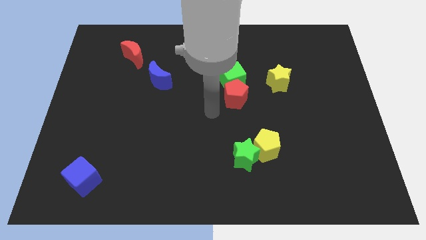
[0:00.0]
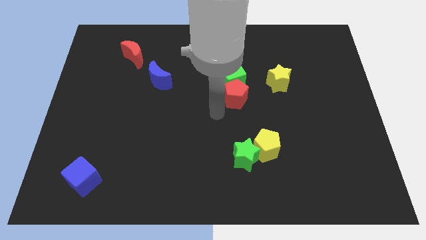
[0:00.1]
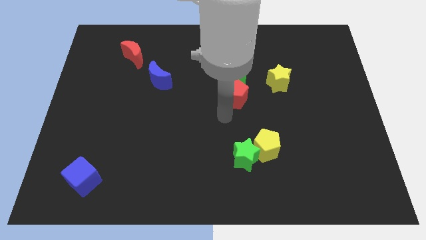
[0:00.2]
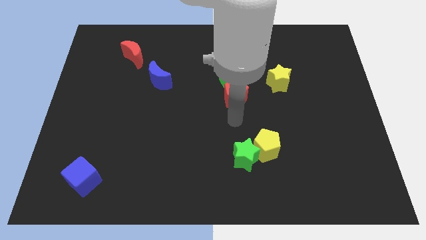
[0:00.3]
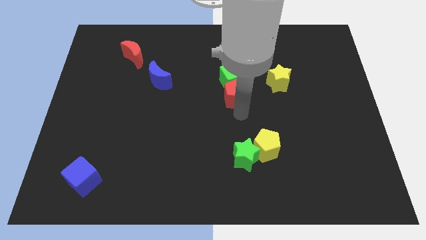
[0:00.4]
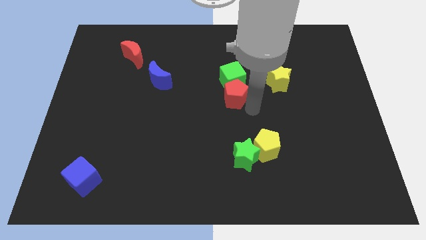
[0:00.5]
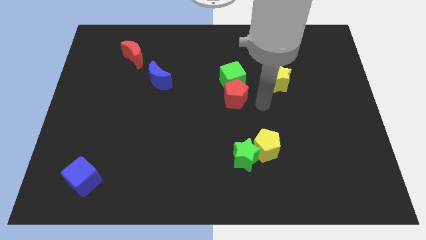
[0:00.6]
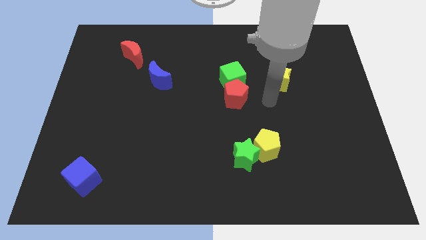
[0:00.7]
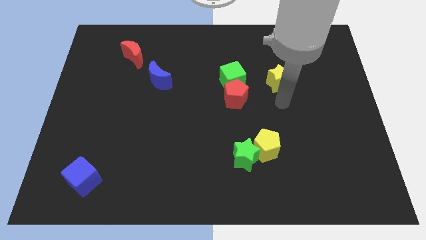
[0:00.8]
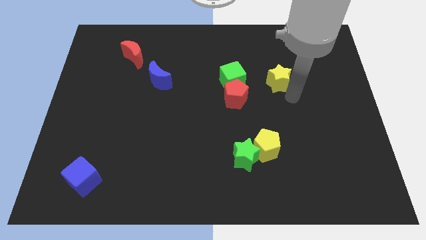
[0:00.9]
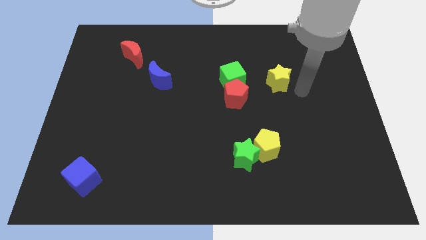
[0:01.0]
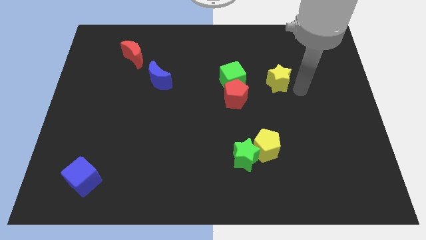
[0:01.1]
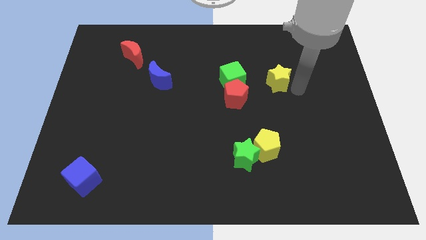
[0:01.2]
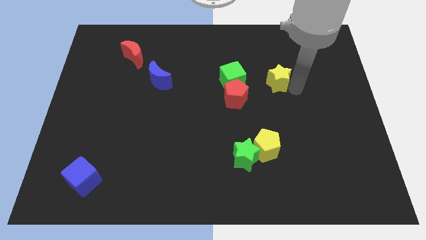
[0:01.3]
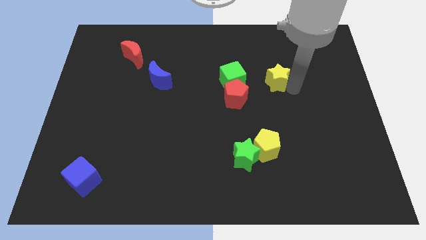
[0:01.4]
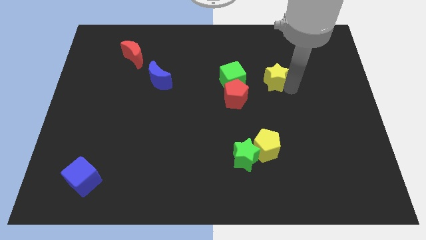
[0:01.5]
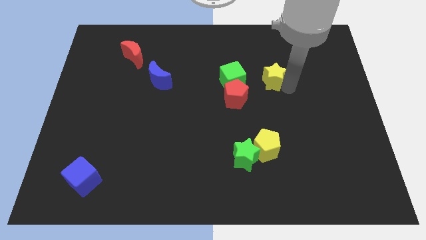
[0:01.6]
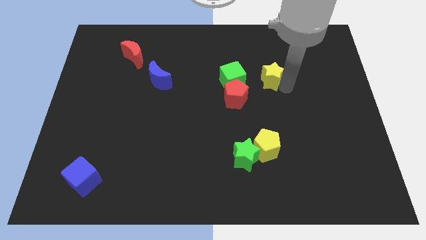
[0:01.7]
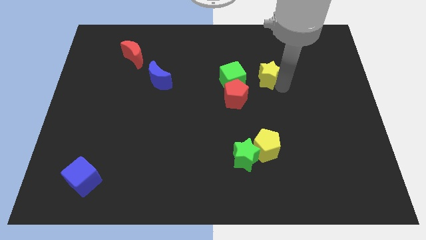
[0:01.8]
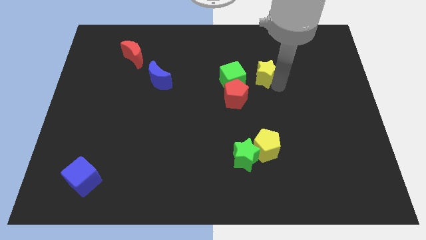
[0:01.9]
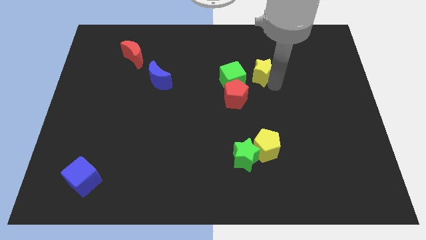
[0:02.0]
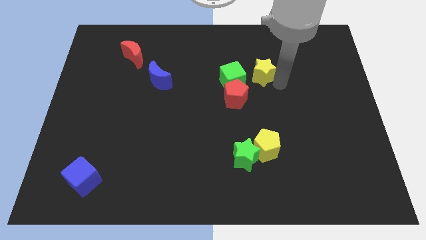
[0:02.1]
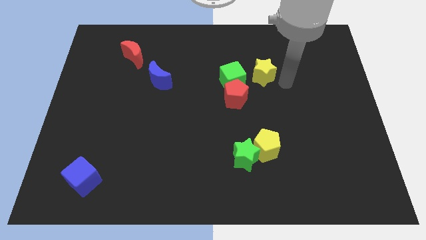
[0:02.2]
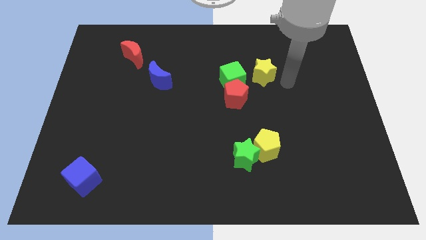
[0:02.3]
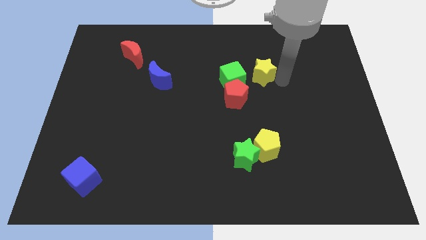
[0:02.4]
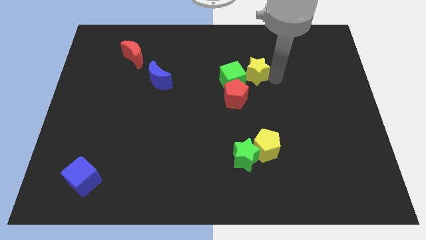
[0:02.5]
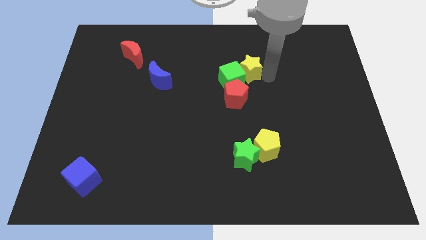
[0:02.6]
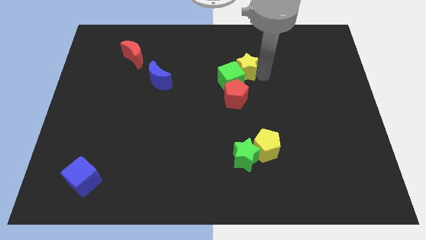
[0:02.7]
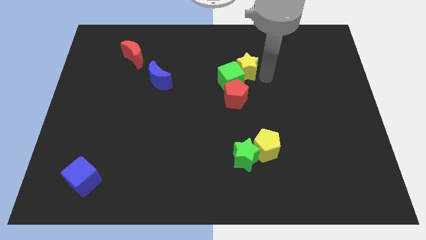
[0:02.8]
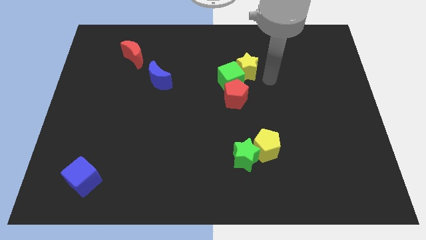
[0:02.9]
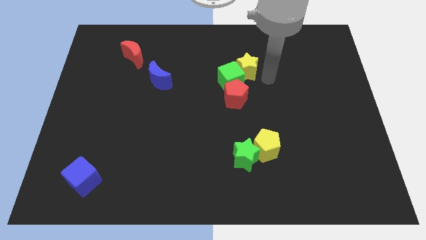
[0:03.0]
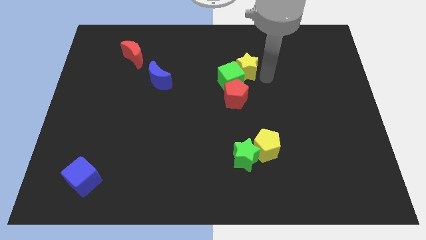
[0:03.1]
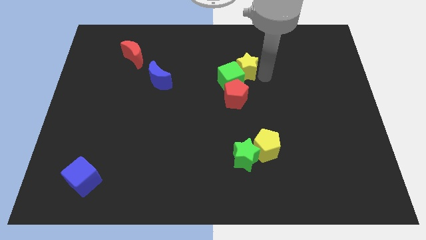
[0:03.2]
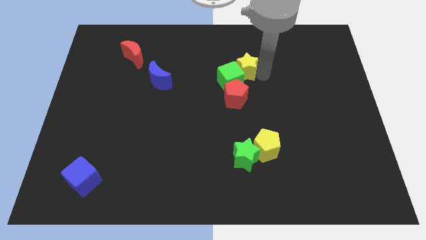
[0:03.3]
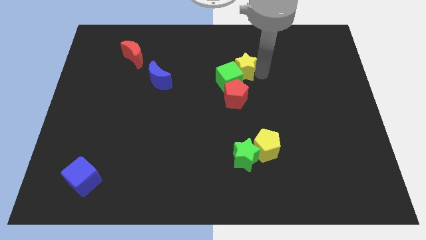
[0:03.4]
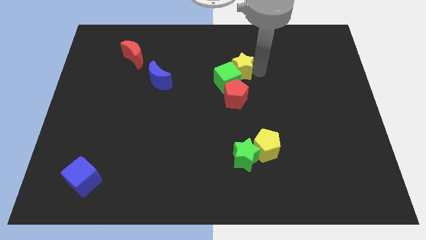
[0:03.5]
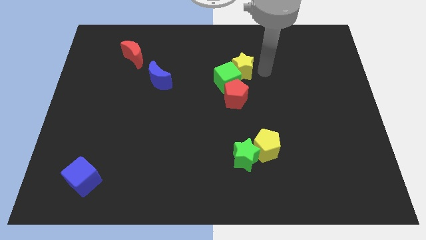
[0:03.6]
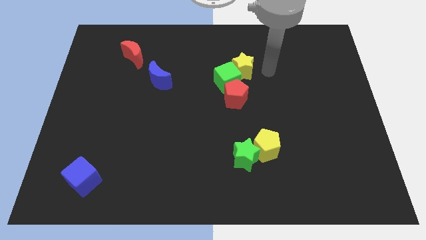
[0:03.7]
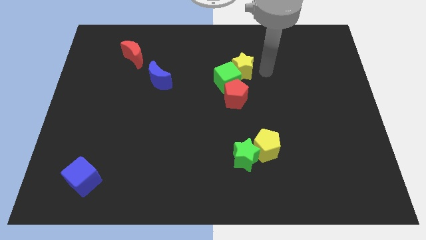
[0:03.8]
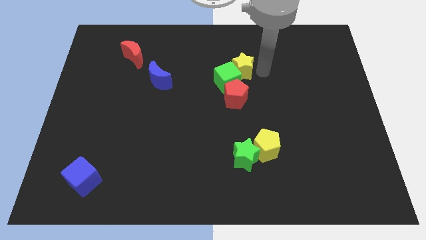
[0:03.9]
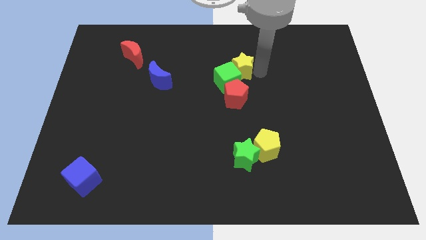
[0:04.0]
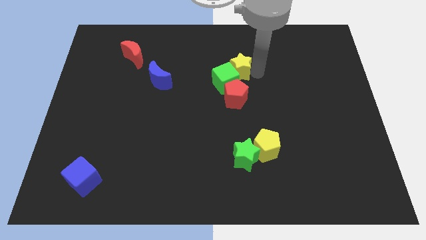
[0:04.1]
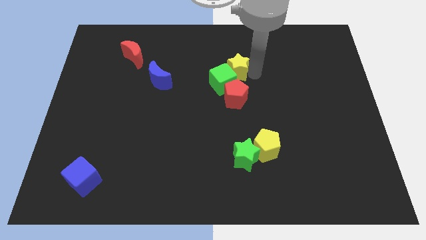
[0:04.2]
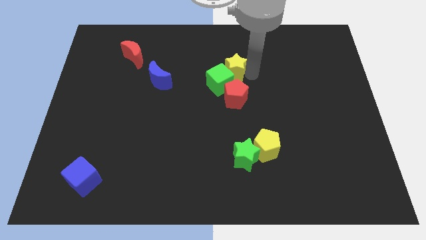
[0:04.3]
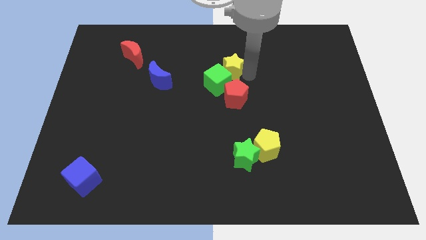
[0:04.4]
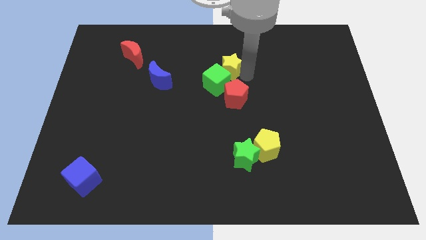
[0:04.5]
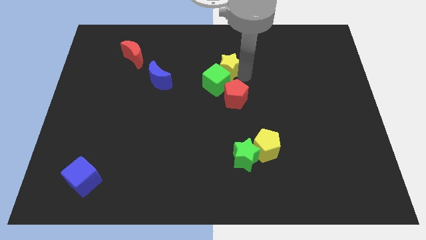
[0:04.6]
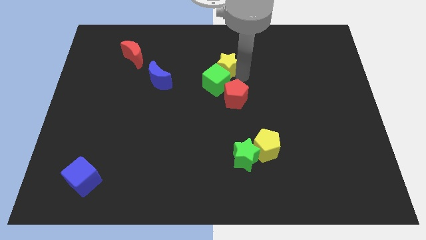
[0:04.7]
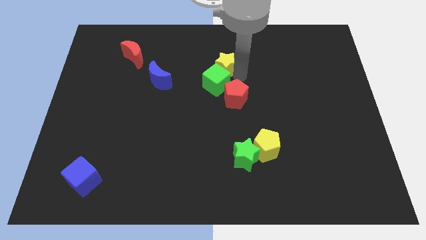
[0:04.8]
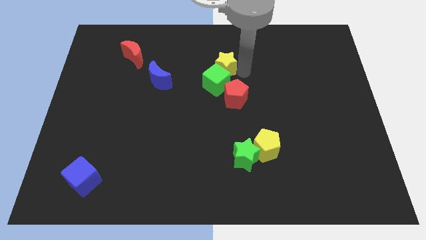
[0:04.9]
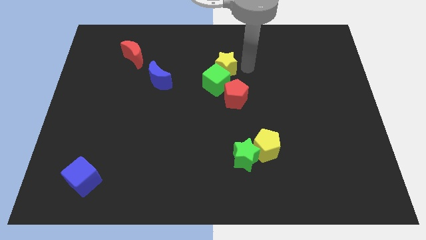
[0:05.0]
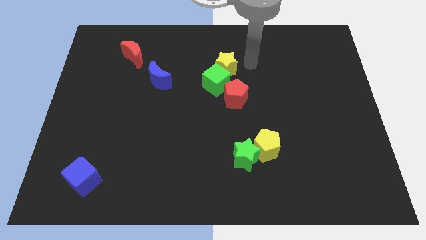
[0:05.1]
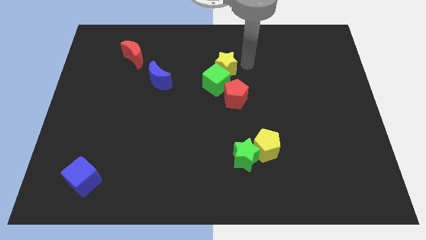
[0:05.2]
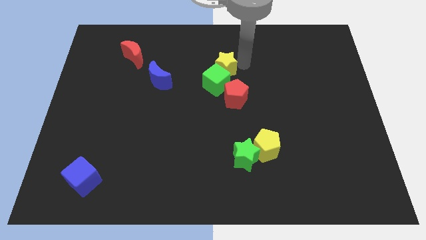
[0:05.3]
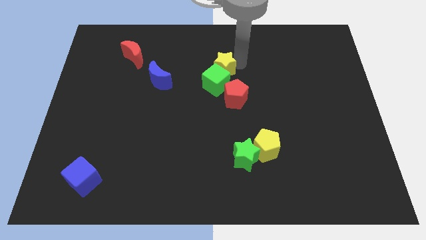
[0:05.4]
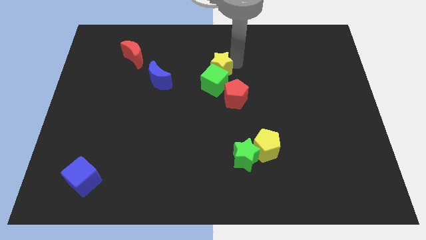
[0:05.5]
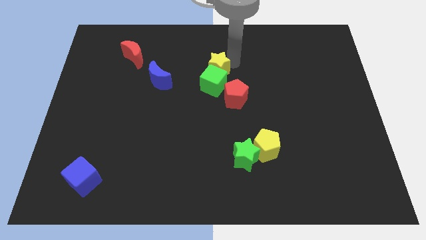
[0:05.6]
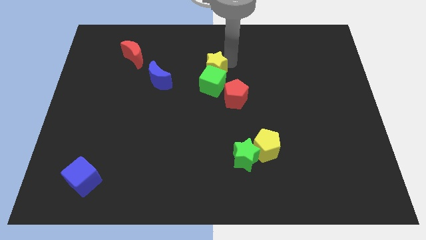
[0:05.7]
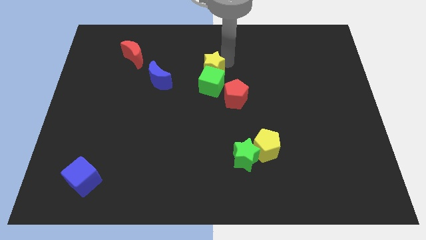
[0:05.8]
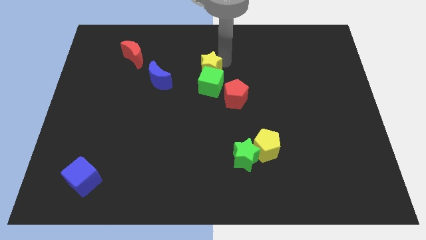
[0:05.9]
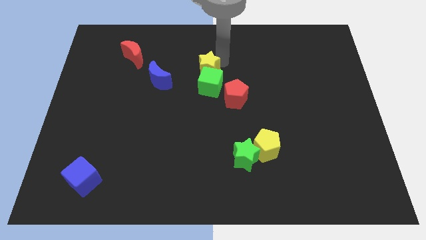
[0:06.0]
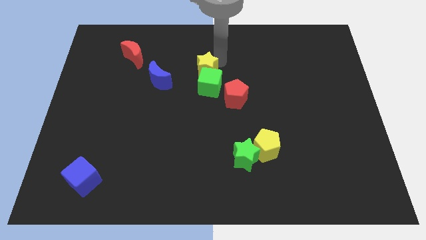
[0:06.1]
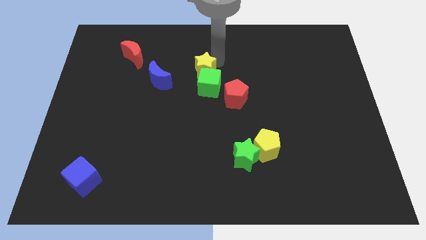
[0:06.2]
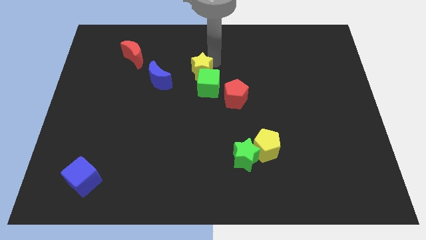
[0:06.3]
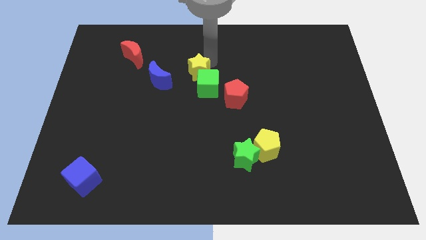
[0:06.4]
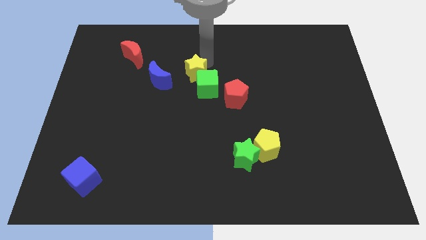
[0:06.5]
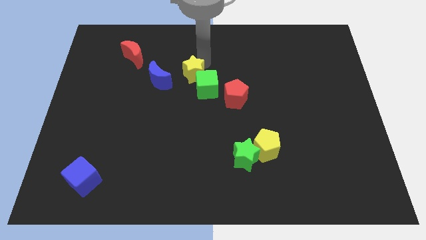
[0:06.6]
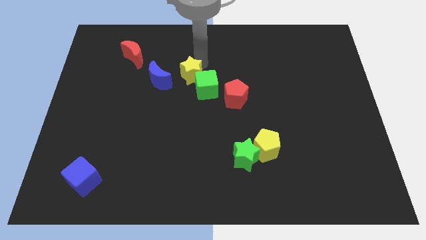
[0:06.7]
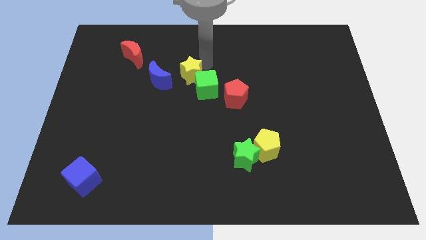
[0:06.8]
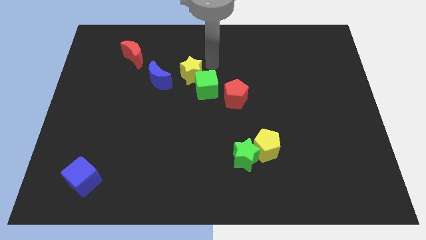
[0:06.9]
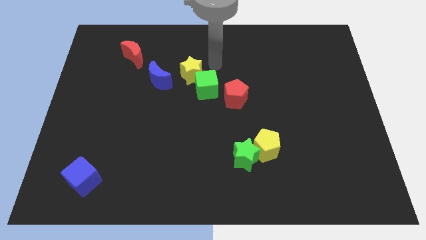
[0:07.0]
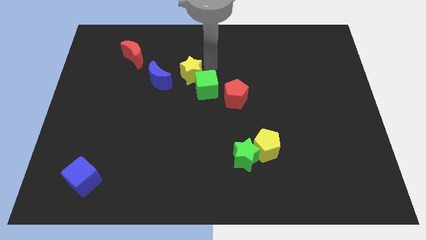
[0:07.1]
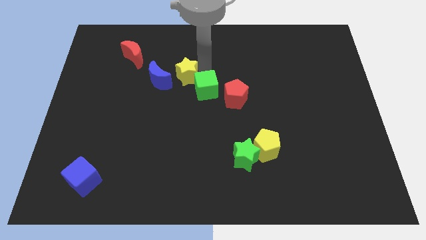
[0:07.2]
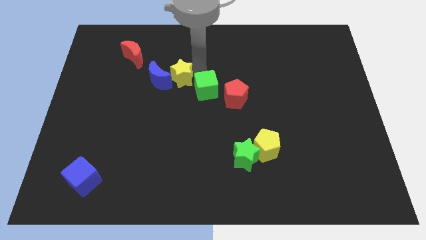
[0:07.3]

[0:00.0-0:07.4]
put the yellow star next to the blue moon
